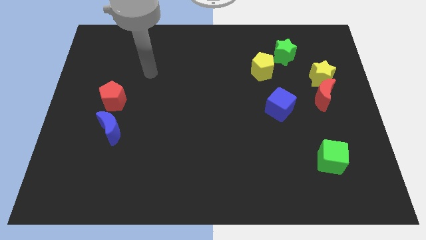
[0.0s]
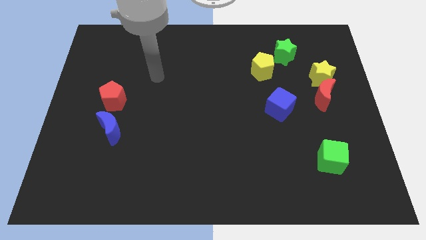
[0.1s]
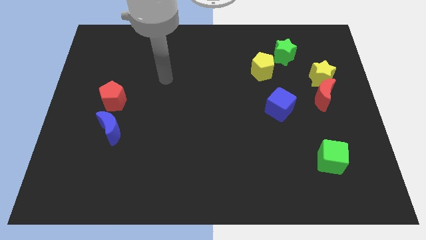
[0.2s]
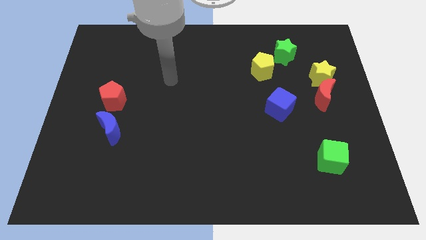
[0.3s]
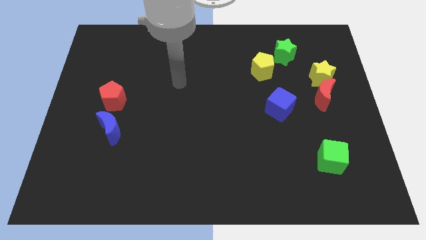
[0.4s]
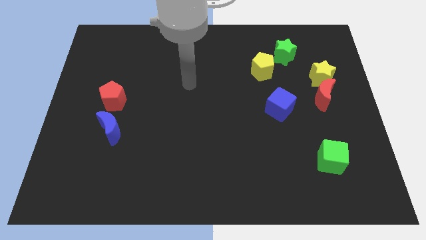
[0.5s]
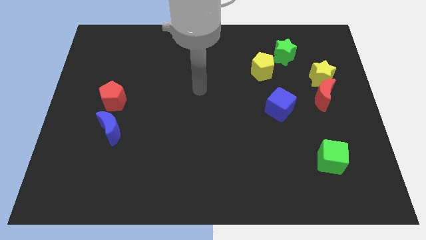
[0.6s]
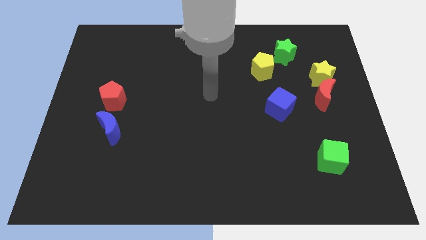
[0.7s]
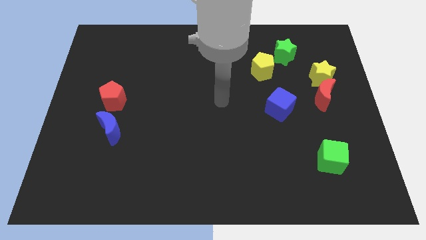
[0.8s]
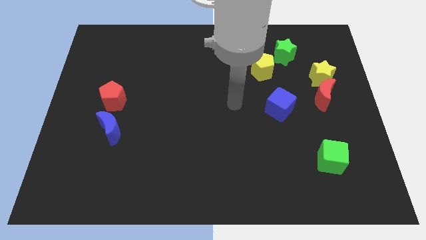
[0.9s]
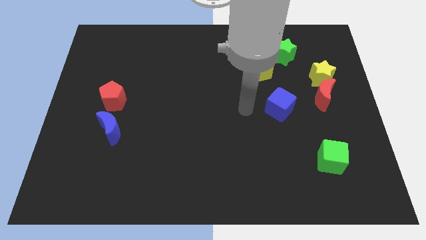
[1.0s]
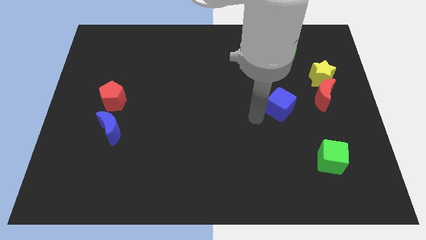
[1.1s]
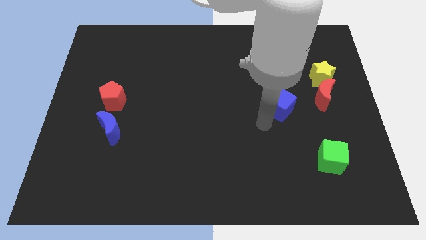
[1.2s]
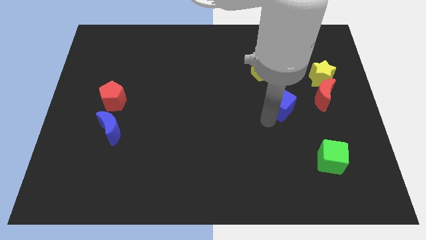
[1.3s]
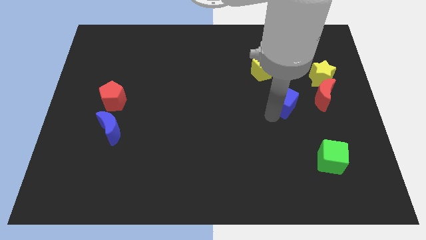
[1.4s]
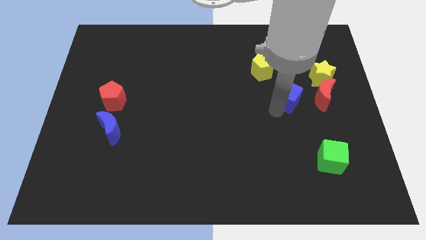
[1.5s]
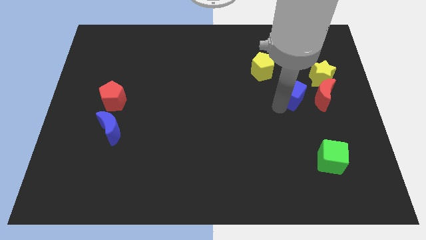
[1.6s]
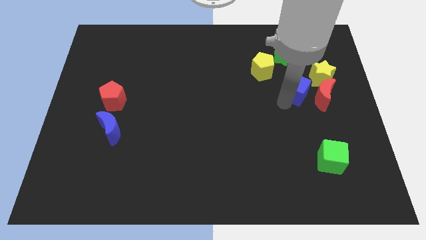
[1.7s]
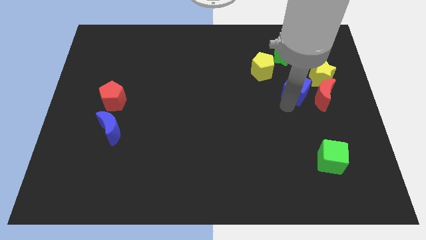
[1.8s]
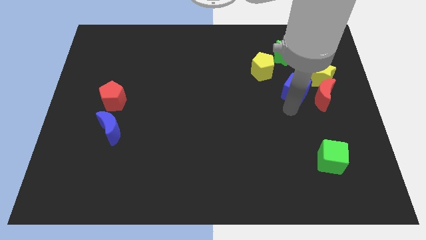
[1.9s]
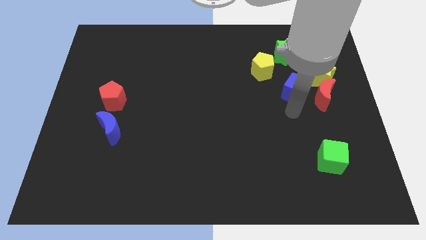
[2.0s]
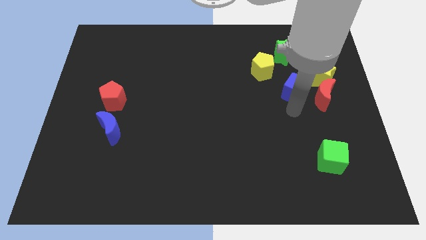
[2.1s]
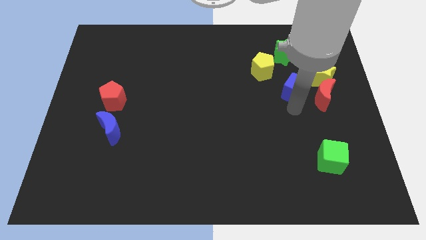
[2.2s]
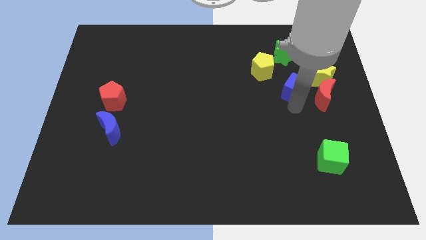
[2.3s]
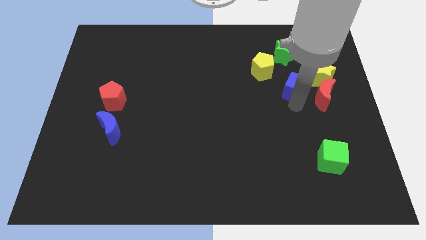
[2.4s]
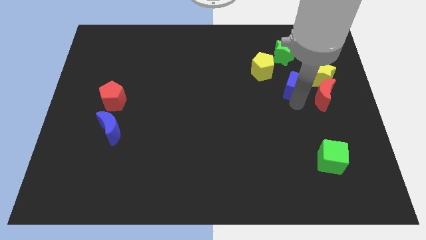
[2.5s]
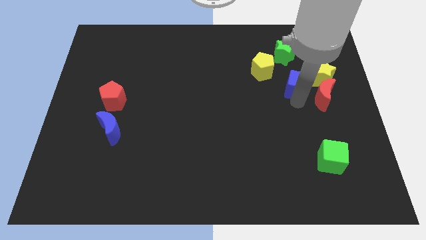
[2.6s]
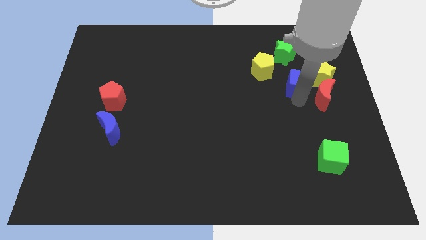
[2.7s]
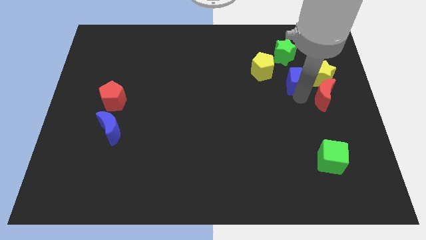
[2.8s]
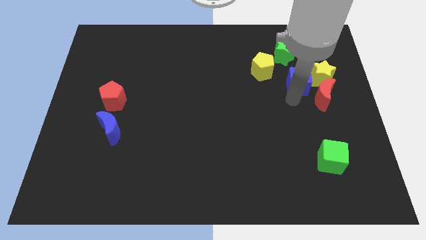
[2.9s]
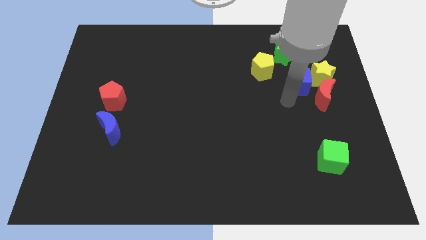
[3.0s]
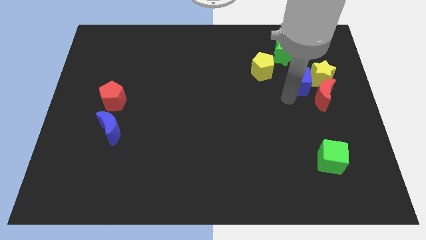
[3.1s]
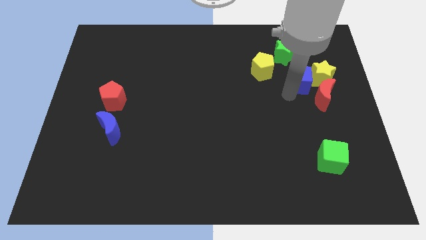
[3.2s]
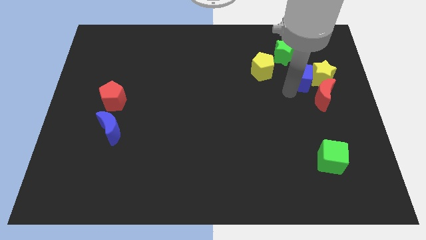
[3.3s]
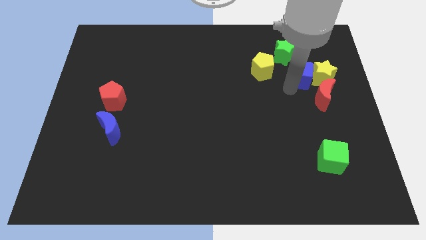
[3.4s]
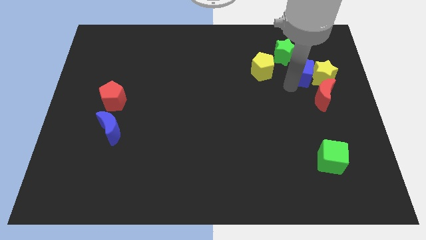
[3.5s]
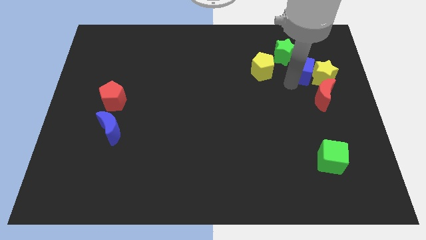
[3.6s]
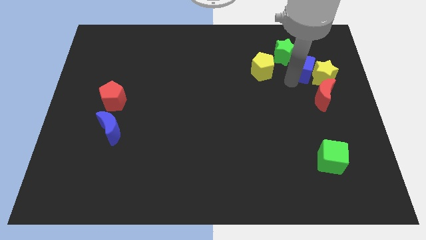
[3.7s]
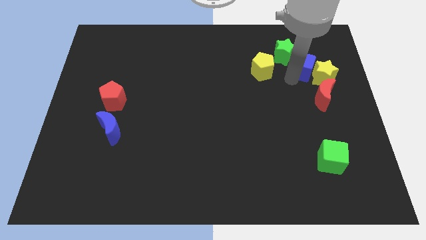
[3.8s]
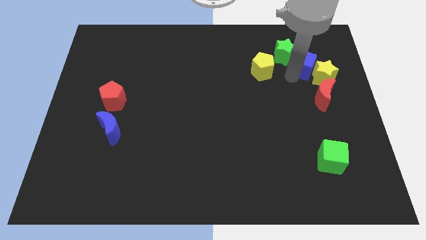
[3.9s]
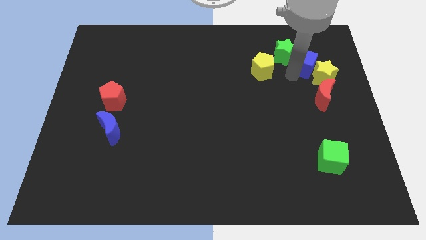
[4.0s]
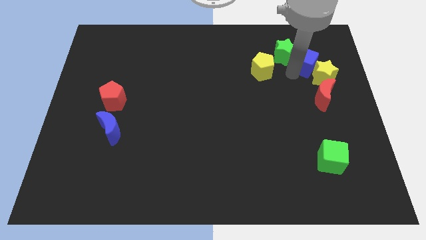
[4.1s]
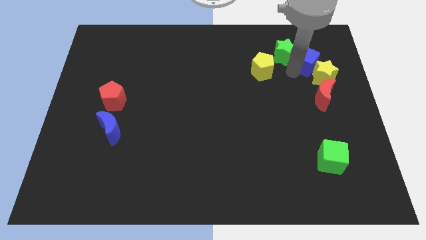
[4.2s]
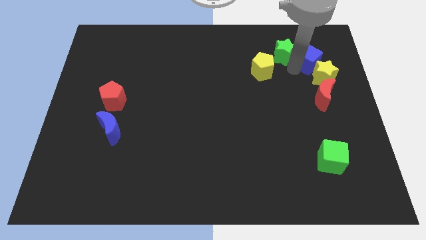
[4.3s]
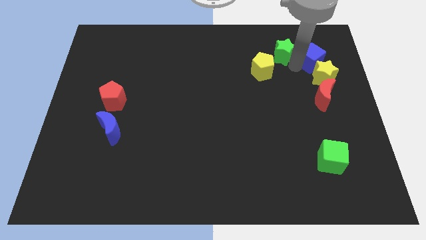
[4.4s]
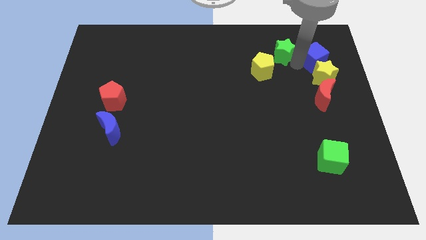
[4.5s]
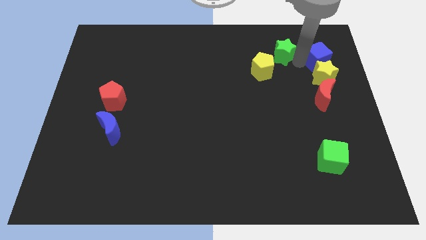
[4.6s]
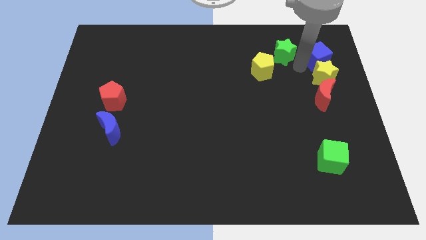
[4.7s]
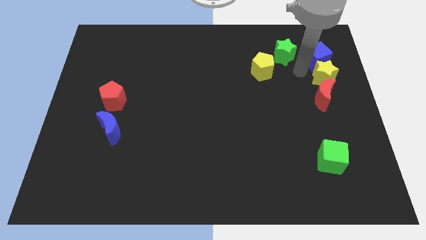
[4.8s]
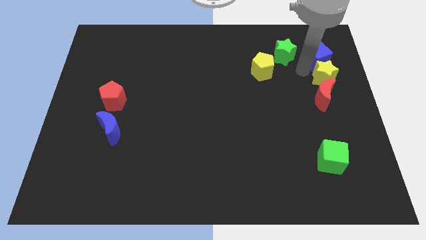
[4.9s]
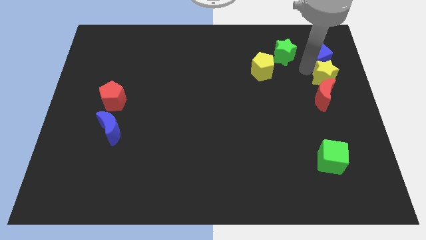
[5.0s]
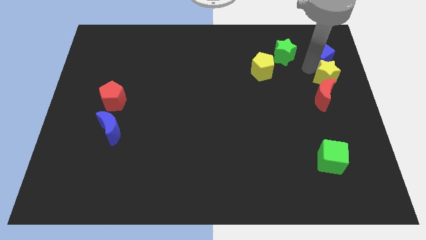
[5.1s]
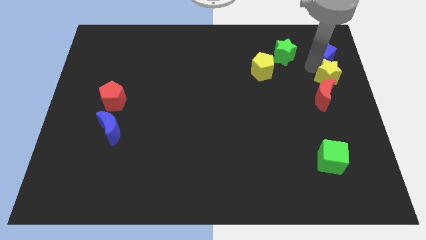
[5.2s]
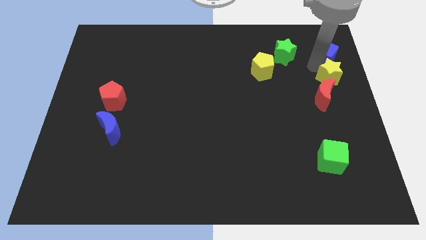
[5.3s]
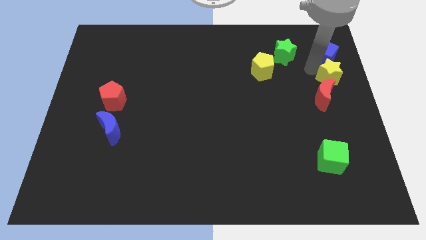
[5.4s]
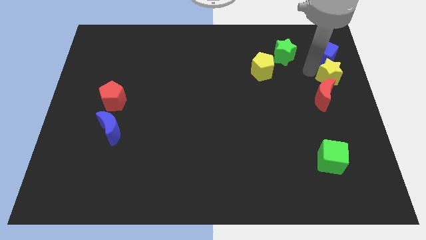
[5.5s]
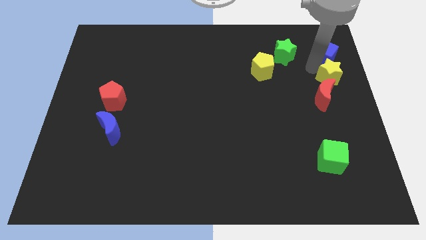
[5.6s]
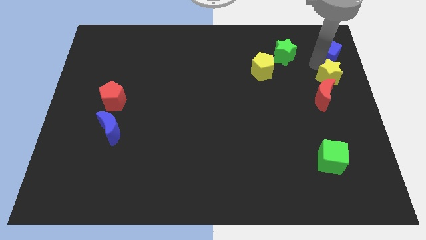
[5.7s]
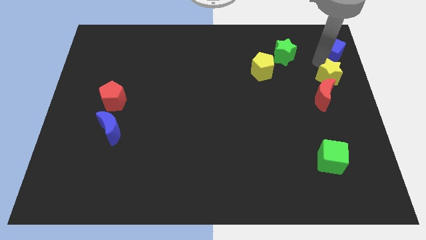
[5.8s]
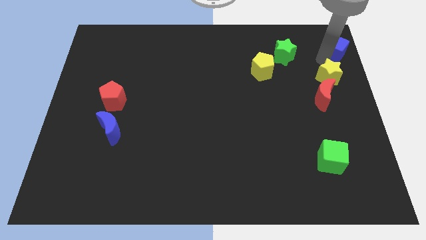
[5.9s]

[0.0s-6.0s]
move the blue cube to the top right of the board
